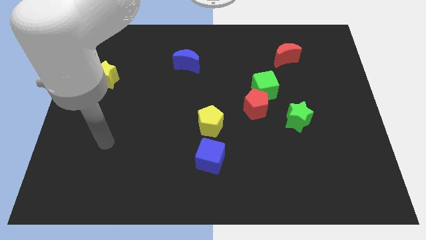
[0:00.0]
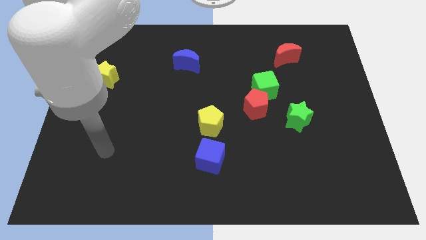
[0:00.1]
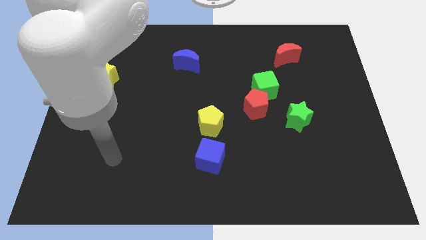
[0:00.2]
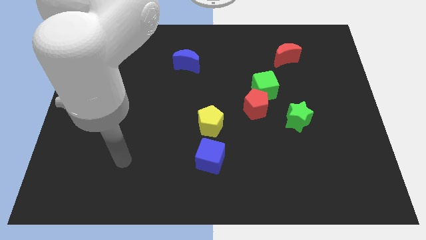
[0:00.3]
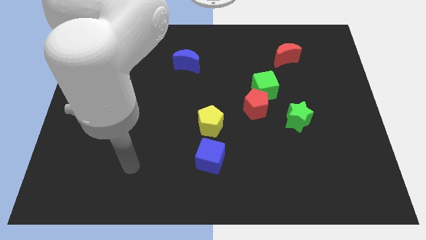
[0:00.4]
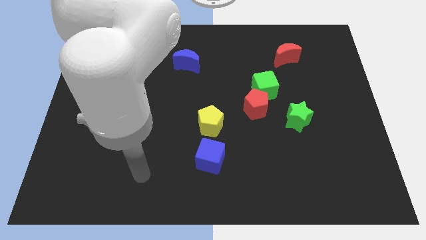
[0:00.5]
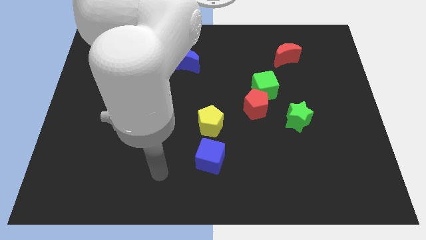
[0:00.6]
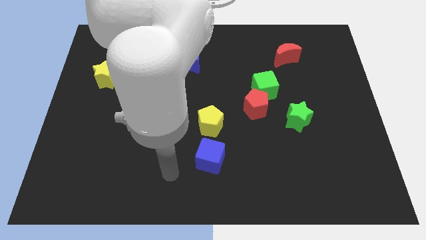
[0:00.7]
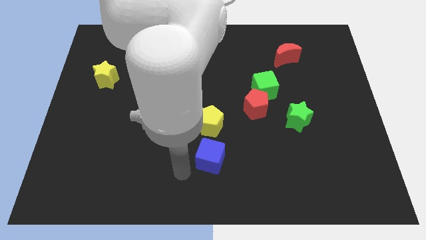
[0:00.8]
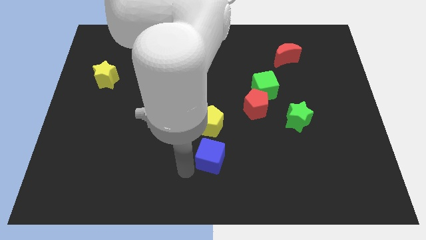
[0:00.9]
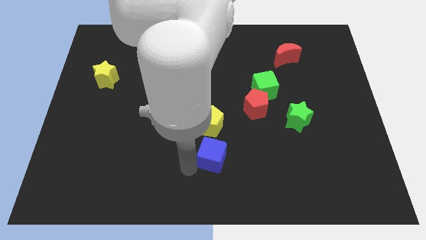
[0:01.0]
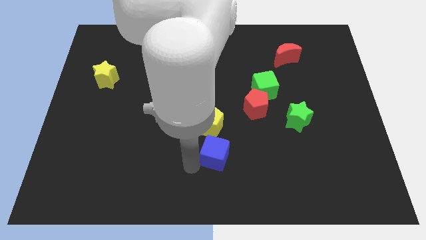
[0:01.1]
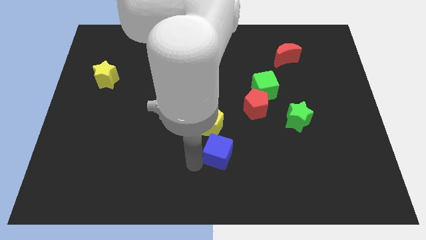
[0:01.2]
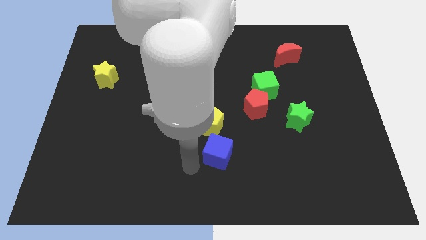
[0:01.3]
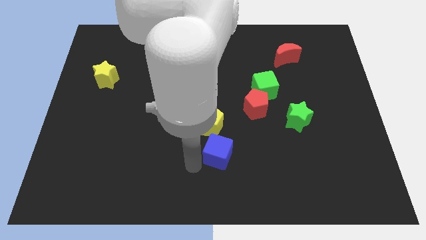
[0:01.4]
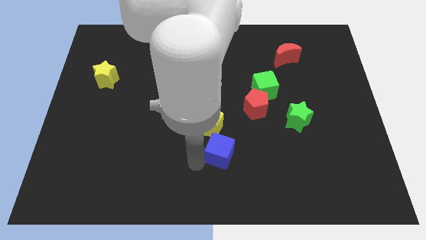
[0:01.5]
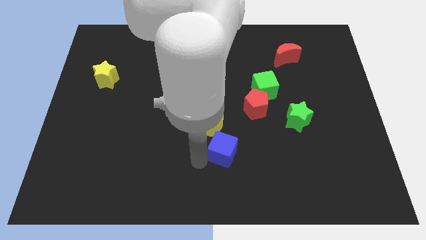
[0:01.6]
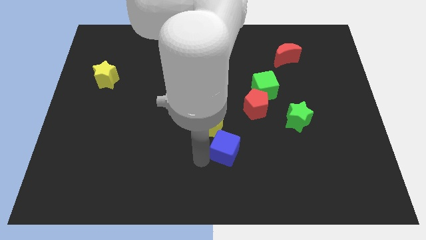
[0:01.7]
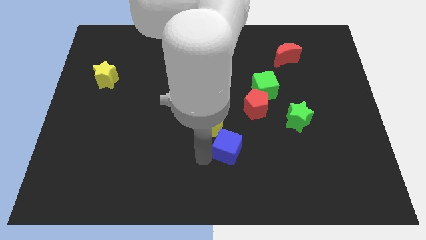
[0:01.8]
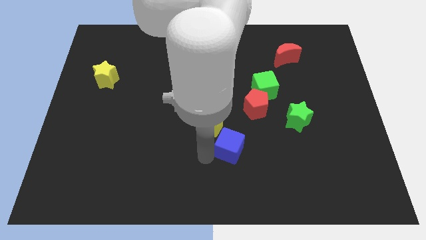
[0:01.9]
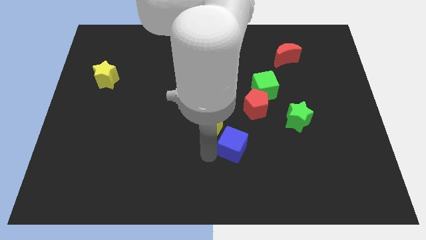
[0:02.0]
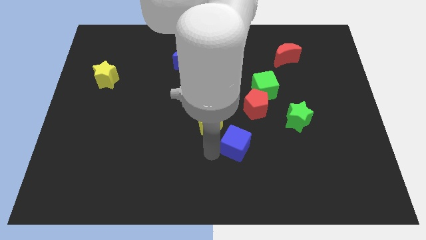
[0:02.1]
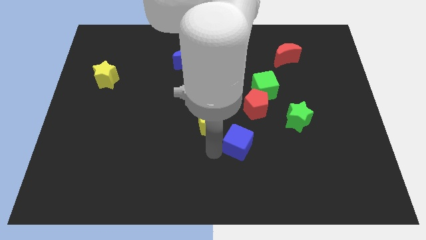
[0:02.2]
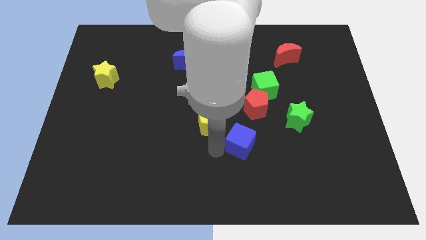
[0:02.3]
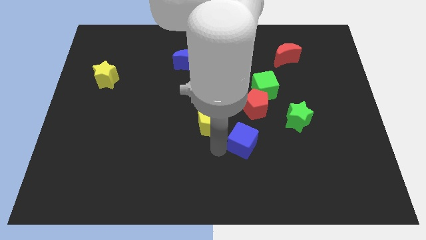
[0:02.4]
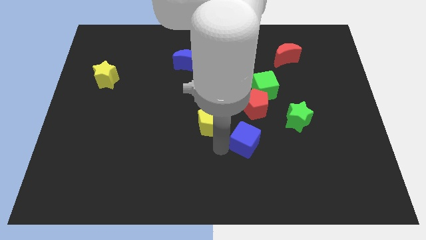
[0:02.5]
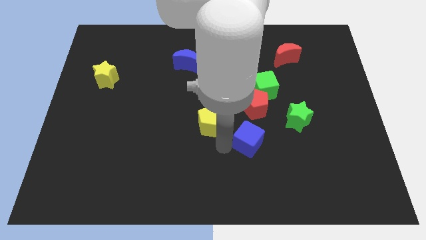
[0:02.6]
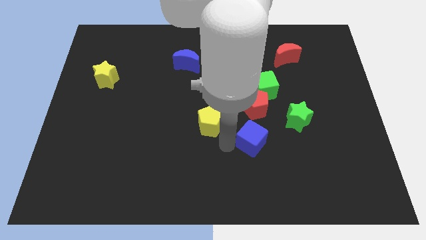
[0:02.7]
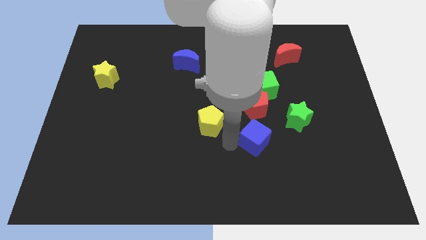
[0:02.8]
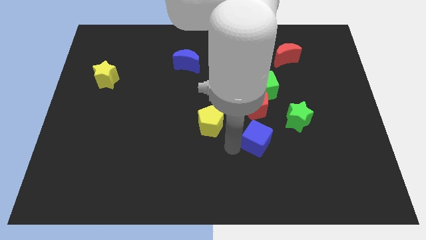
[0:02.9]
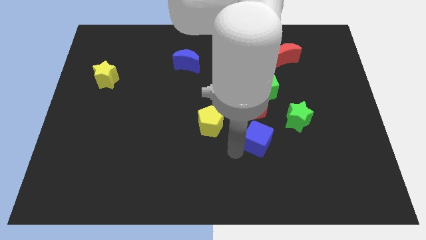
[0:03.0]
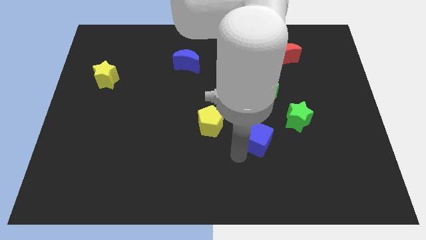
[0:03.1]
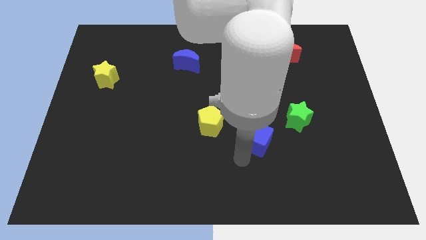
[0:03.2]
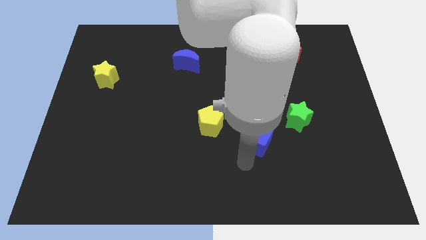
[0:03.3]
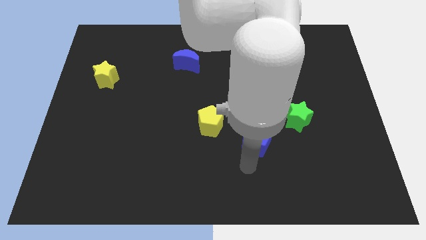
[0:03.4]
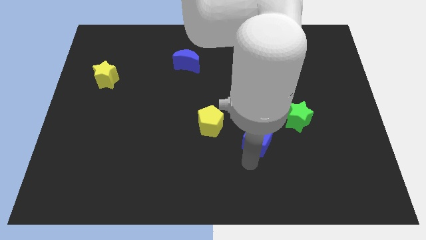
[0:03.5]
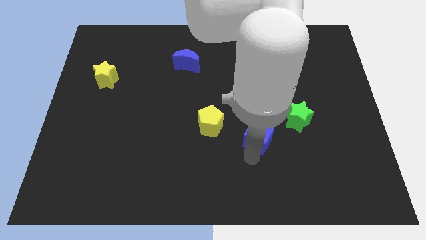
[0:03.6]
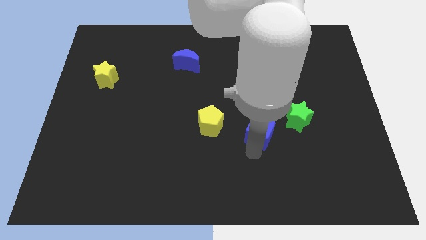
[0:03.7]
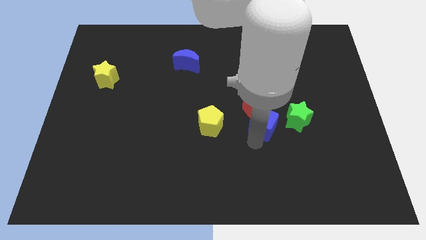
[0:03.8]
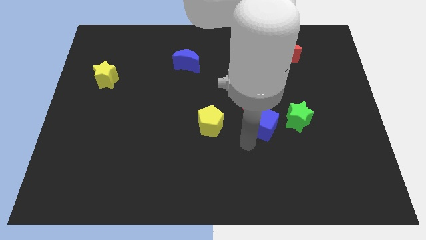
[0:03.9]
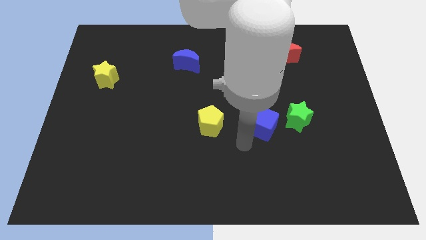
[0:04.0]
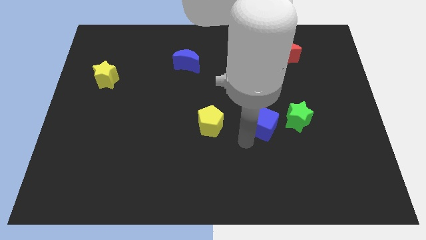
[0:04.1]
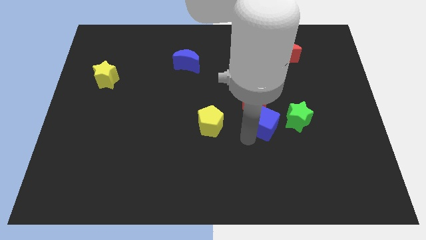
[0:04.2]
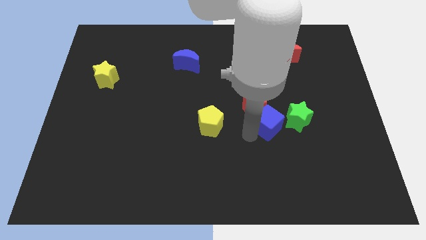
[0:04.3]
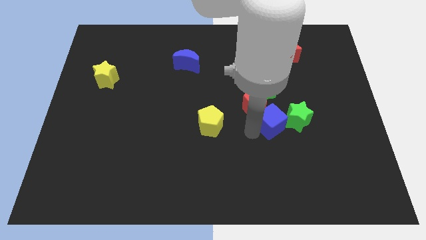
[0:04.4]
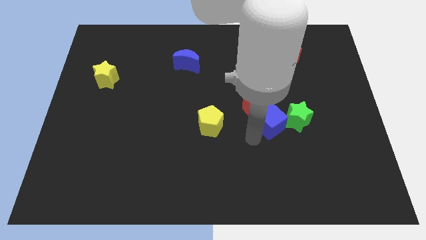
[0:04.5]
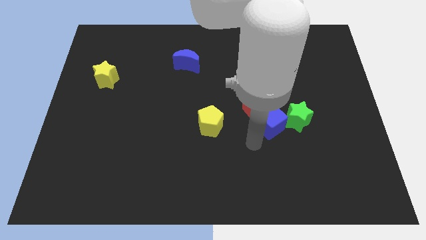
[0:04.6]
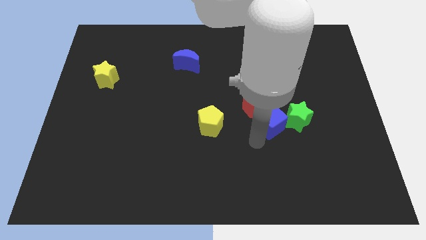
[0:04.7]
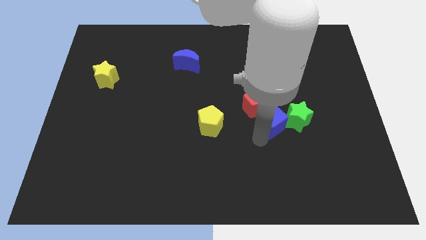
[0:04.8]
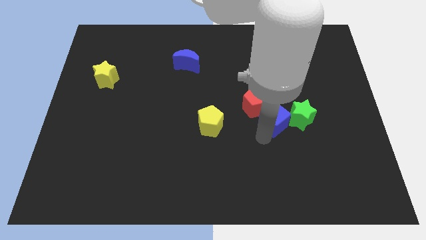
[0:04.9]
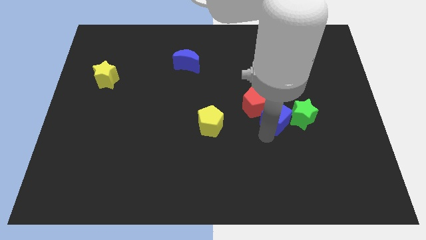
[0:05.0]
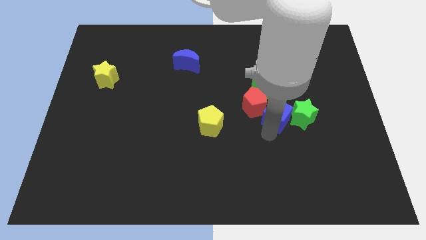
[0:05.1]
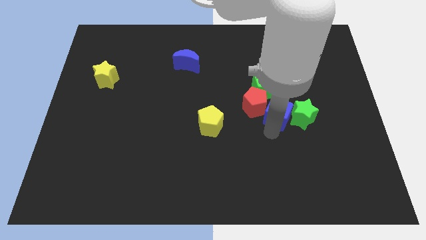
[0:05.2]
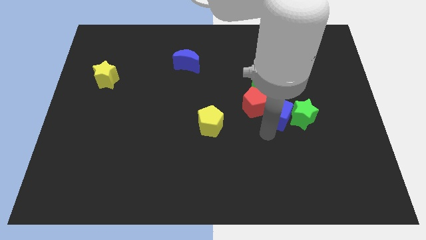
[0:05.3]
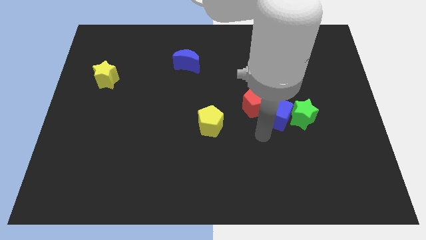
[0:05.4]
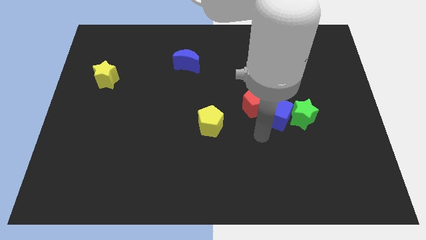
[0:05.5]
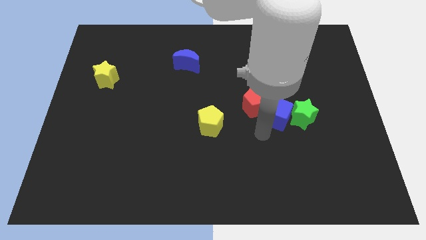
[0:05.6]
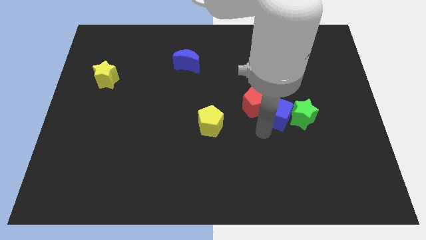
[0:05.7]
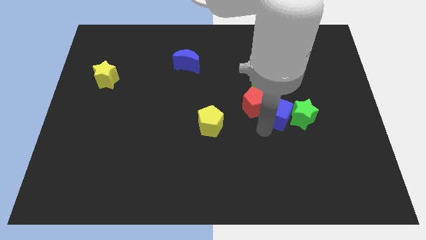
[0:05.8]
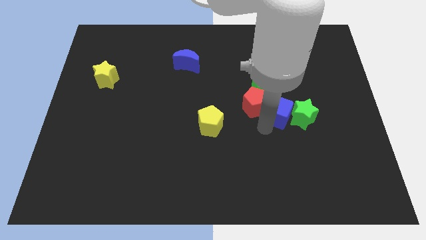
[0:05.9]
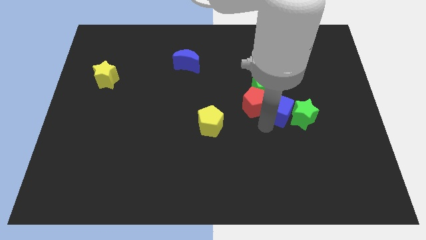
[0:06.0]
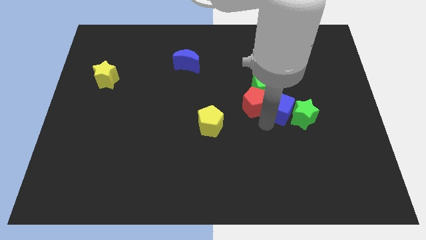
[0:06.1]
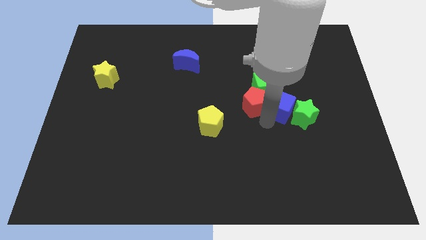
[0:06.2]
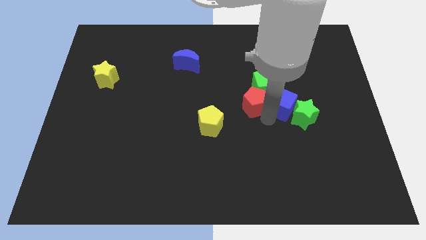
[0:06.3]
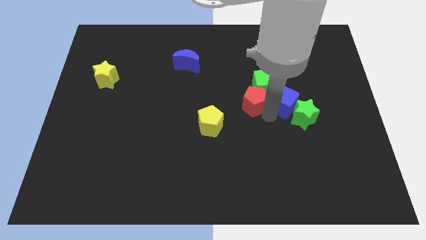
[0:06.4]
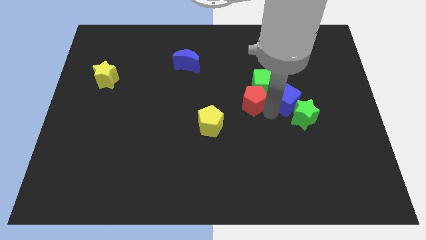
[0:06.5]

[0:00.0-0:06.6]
push the blue cube right of the green cube

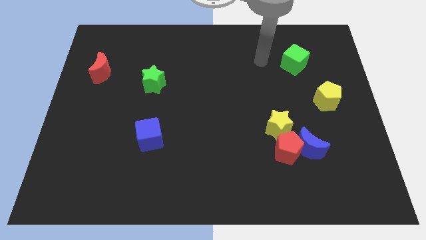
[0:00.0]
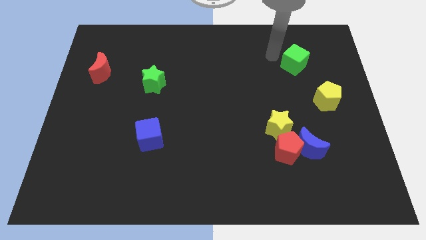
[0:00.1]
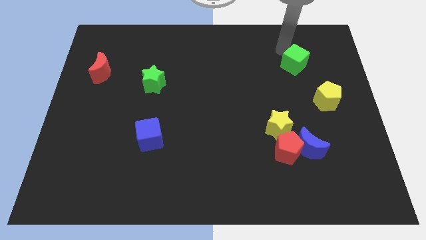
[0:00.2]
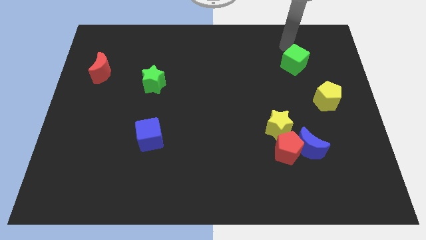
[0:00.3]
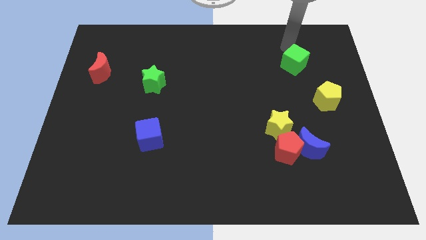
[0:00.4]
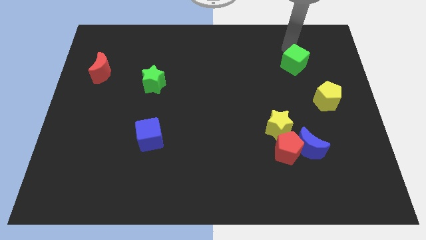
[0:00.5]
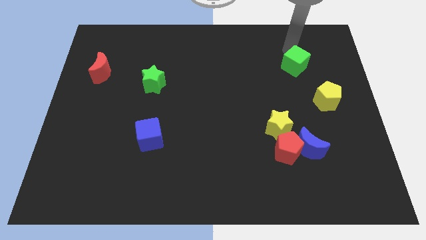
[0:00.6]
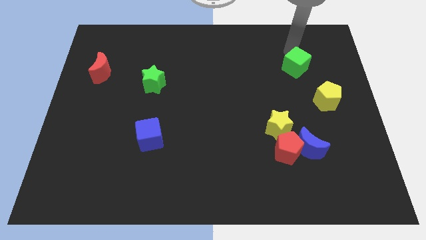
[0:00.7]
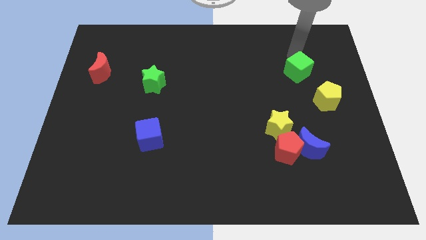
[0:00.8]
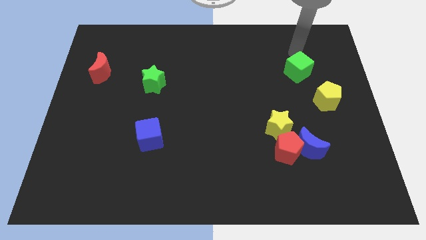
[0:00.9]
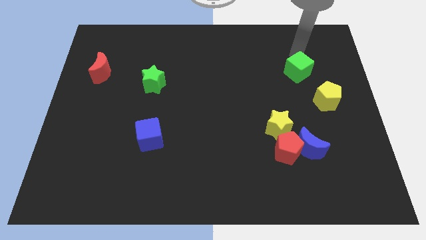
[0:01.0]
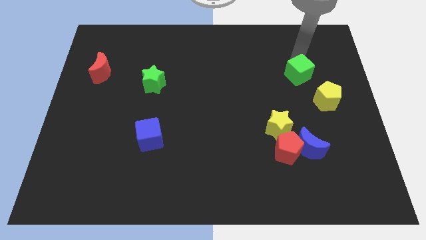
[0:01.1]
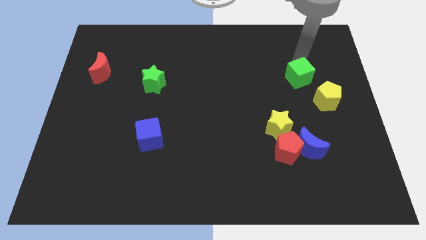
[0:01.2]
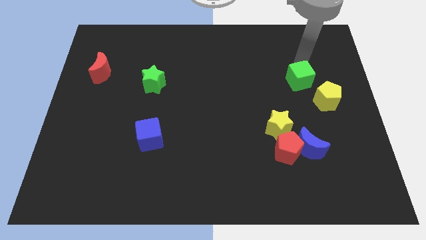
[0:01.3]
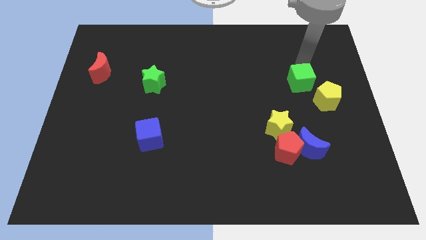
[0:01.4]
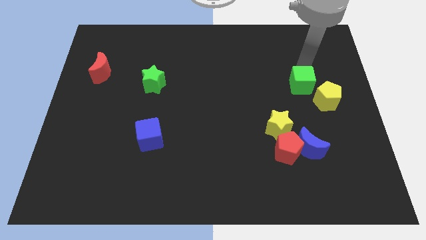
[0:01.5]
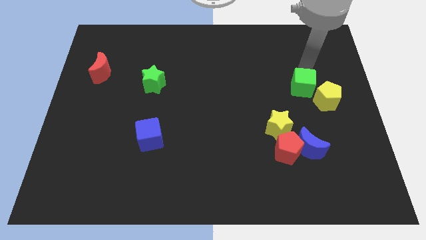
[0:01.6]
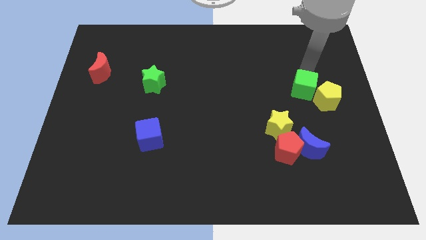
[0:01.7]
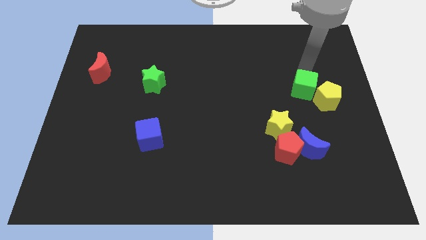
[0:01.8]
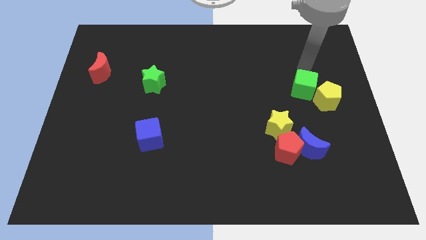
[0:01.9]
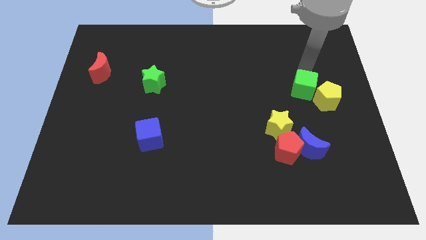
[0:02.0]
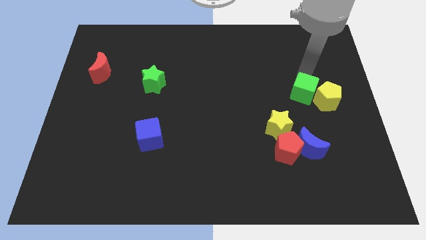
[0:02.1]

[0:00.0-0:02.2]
move the green cube to the top of the blue moon
